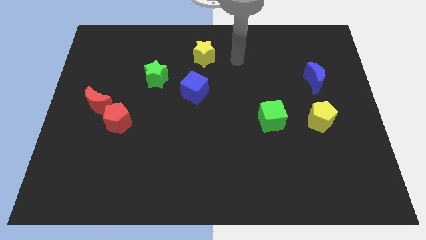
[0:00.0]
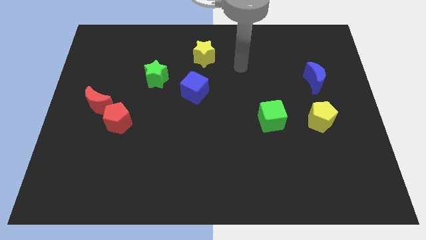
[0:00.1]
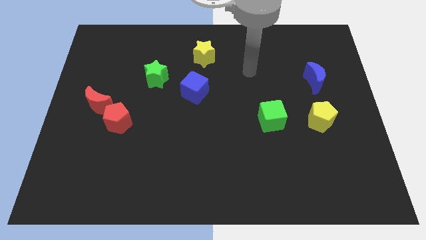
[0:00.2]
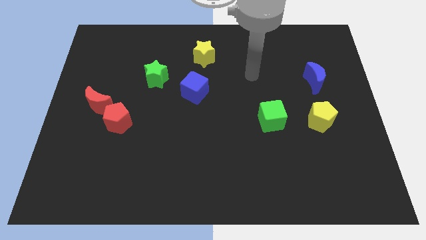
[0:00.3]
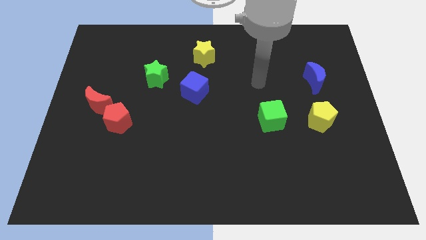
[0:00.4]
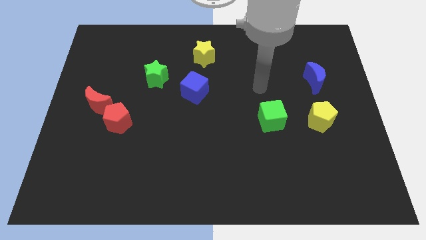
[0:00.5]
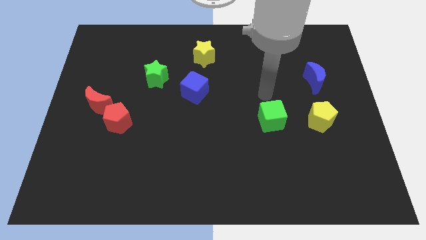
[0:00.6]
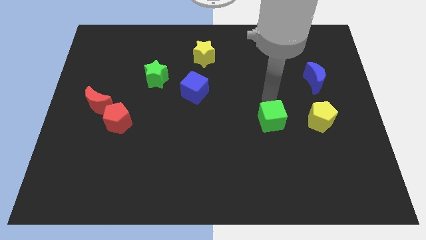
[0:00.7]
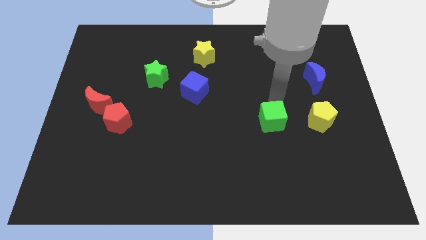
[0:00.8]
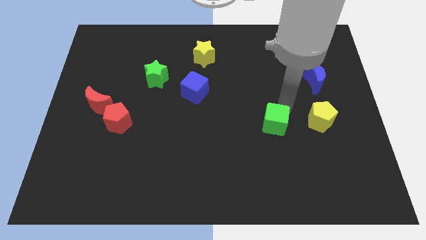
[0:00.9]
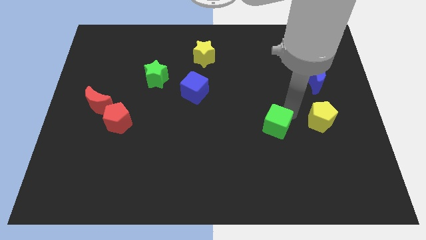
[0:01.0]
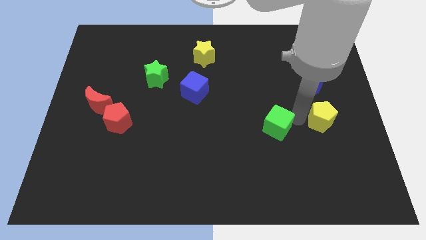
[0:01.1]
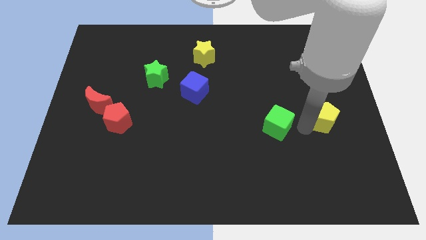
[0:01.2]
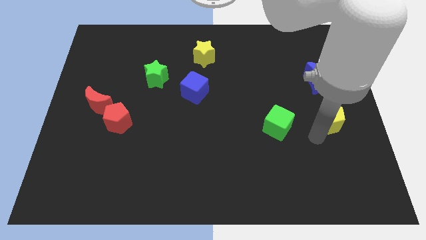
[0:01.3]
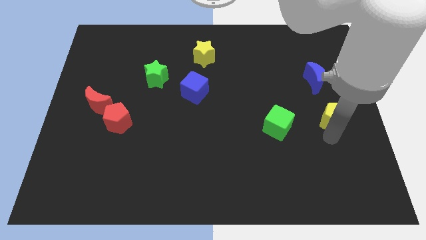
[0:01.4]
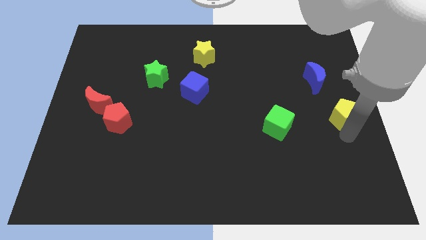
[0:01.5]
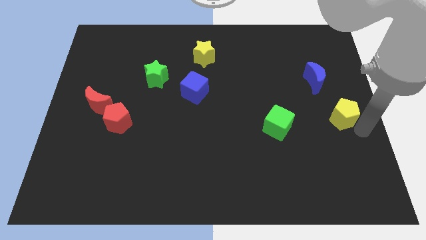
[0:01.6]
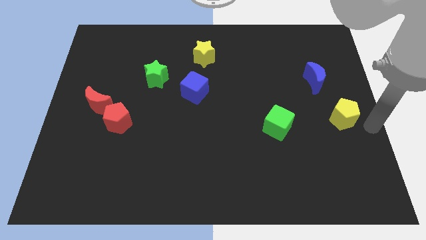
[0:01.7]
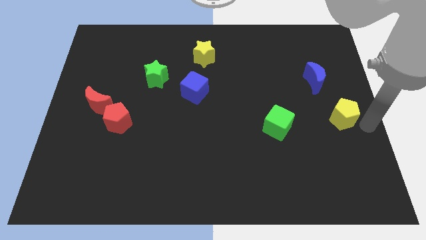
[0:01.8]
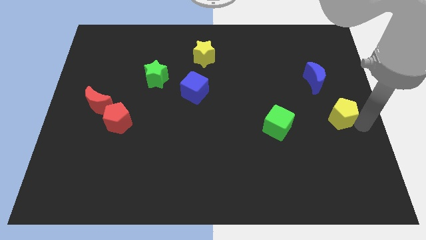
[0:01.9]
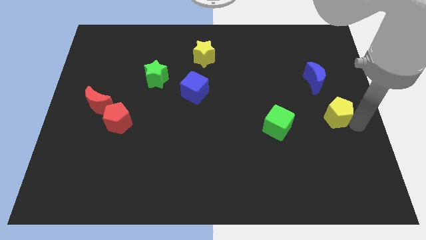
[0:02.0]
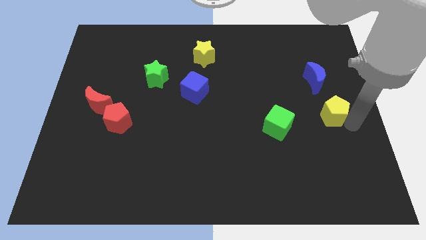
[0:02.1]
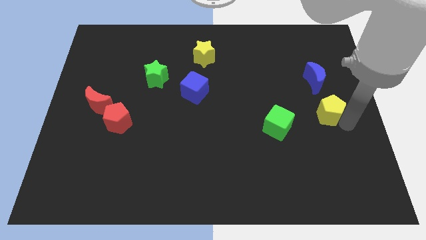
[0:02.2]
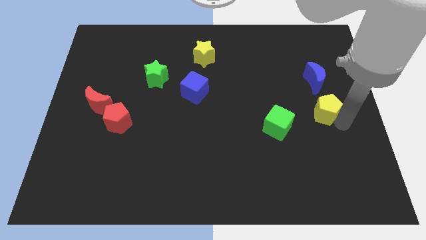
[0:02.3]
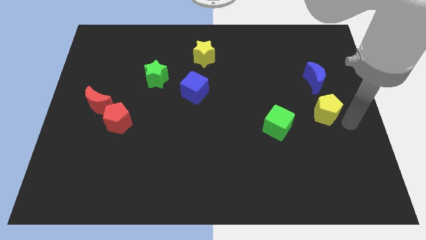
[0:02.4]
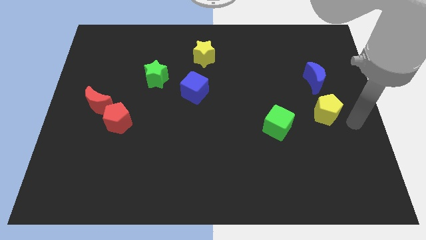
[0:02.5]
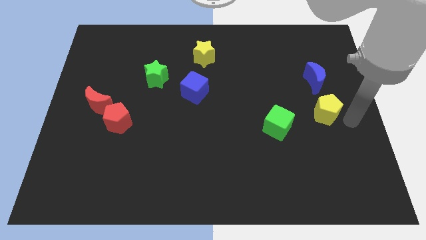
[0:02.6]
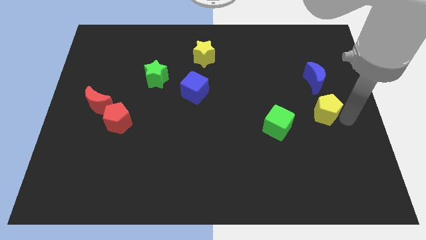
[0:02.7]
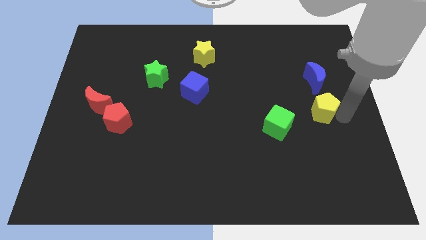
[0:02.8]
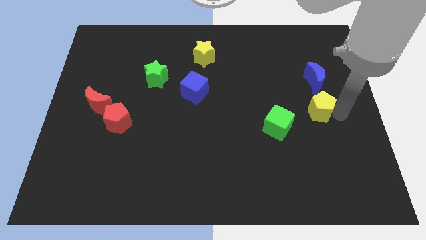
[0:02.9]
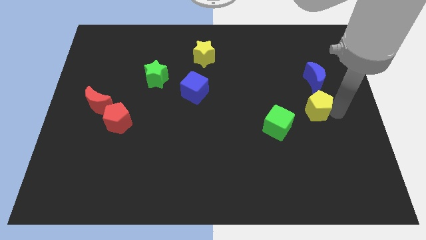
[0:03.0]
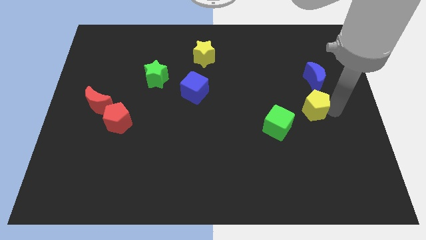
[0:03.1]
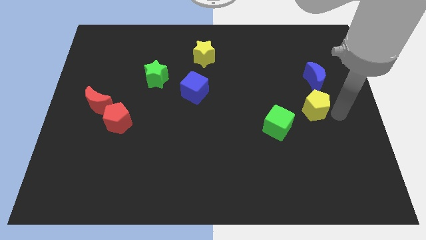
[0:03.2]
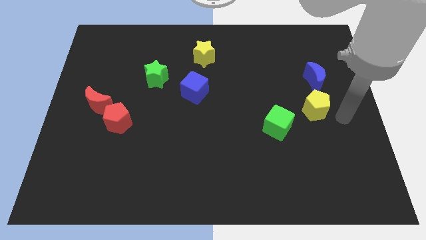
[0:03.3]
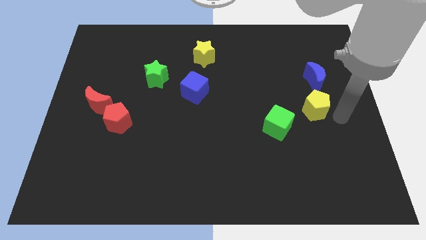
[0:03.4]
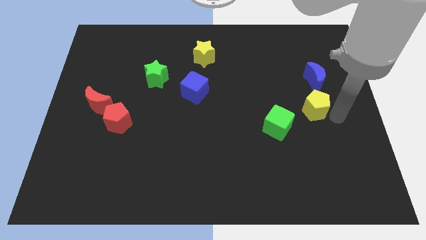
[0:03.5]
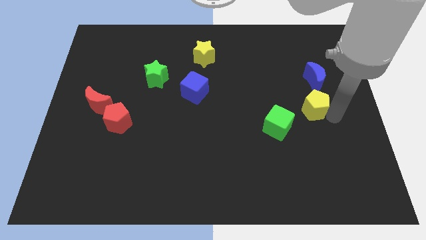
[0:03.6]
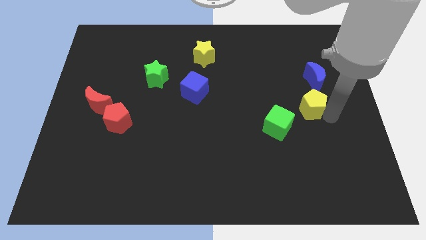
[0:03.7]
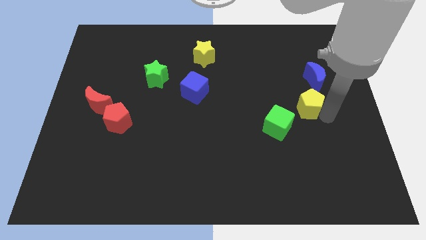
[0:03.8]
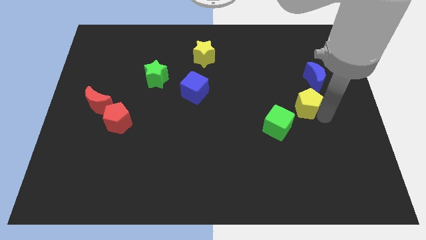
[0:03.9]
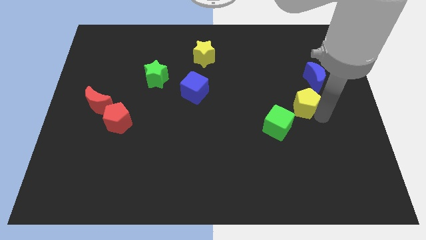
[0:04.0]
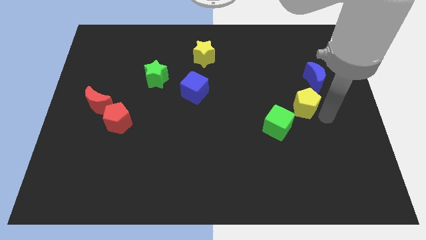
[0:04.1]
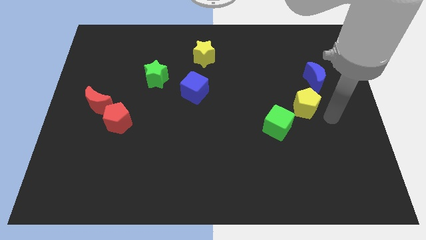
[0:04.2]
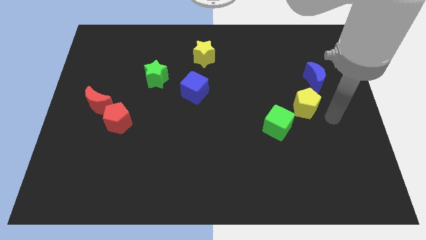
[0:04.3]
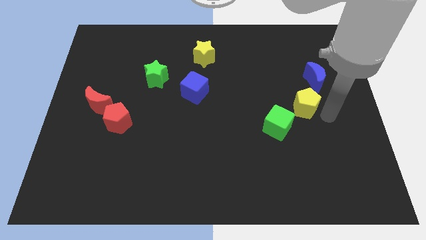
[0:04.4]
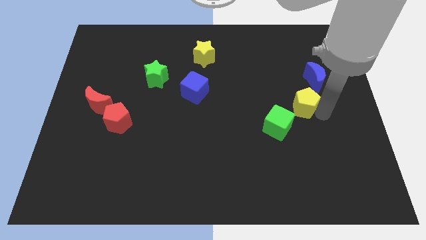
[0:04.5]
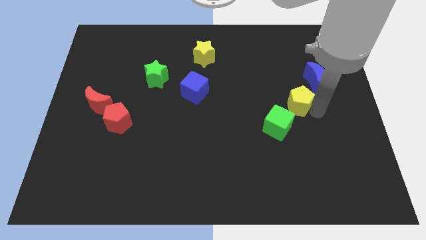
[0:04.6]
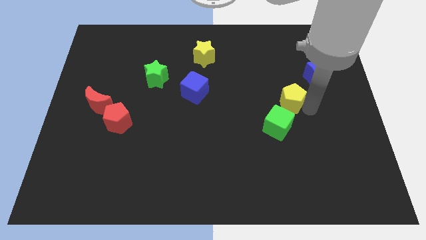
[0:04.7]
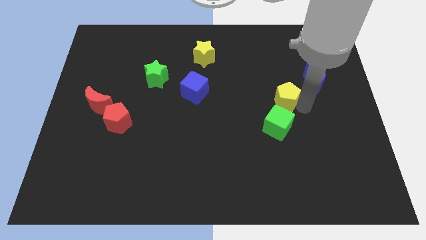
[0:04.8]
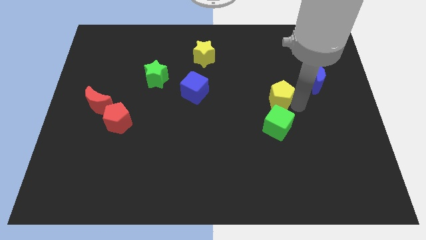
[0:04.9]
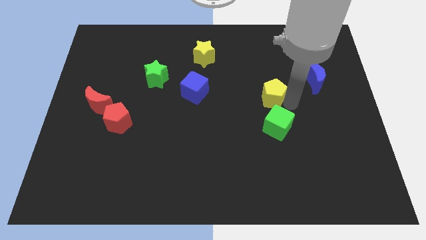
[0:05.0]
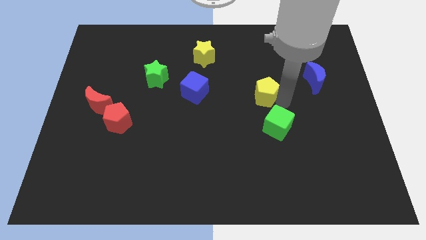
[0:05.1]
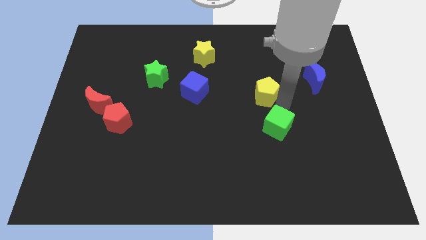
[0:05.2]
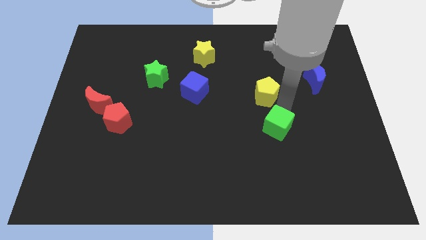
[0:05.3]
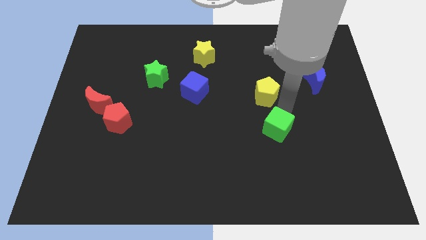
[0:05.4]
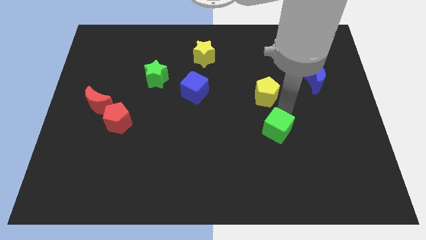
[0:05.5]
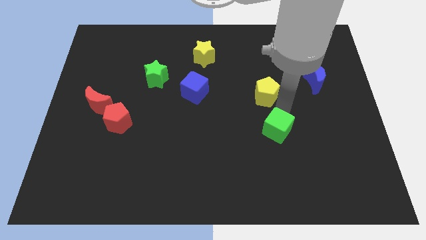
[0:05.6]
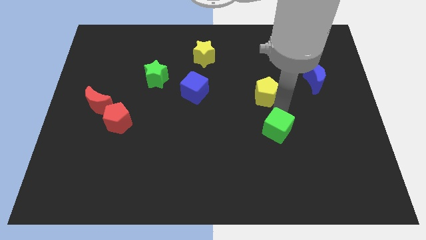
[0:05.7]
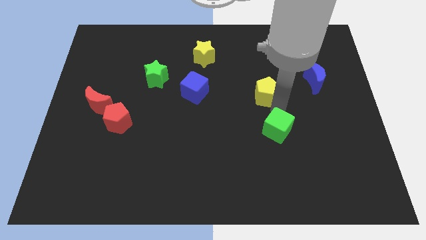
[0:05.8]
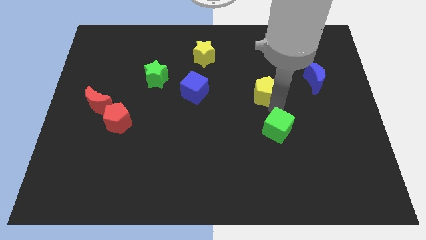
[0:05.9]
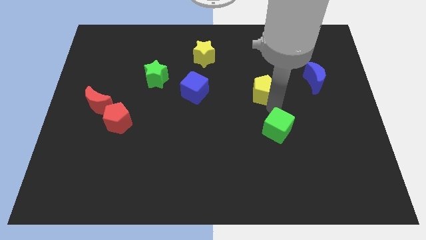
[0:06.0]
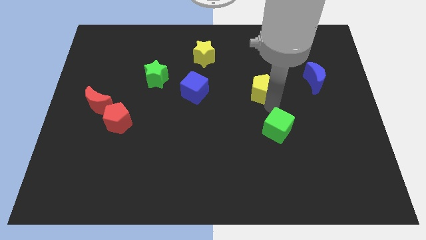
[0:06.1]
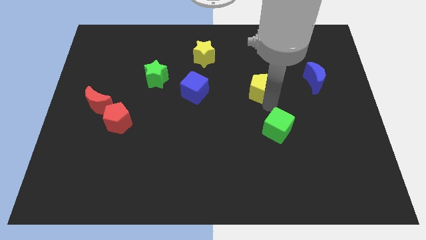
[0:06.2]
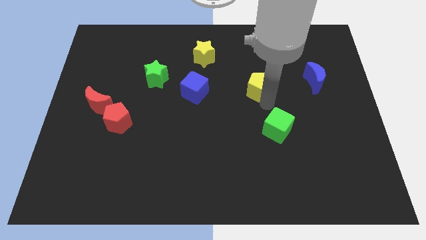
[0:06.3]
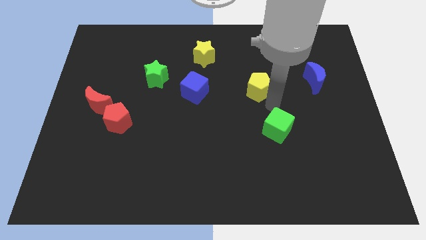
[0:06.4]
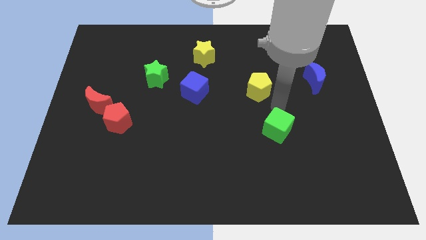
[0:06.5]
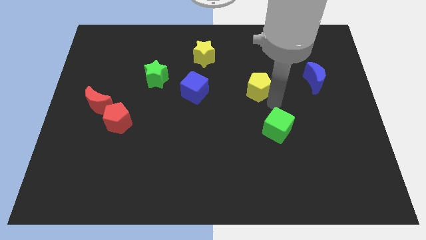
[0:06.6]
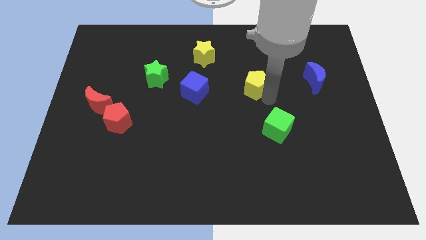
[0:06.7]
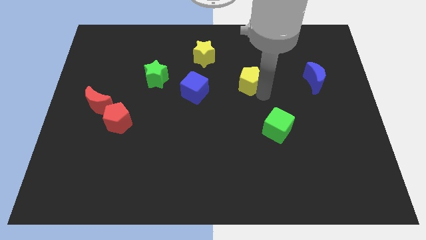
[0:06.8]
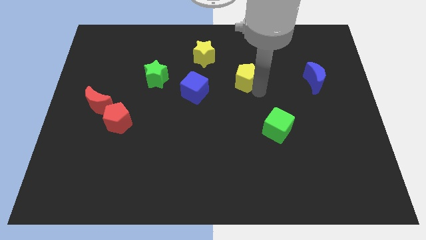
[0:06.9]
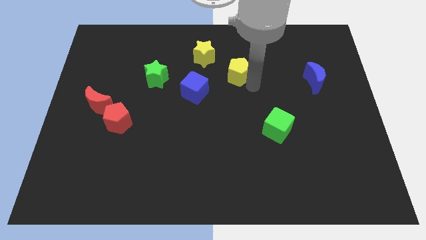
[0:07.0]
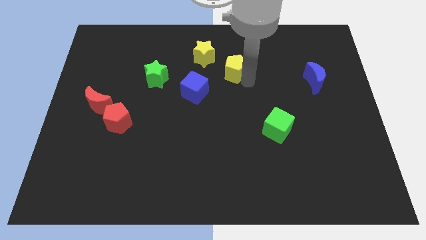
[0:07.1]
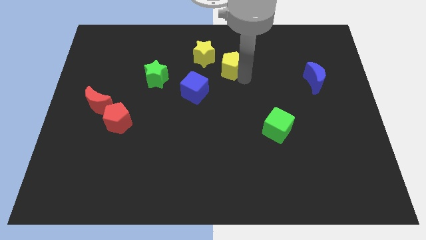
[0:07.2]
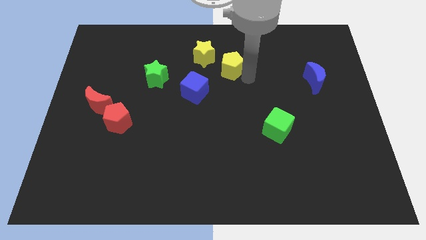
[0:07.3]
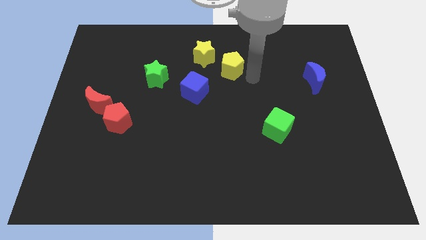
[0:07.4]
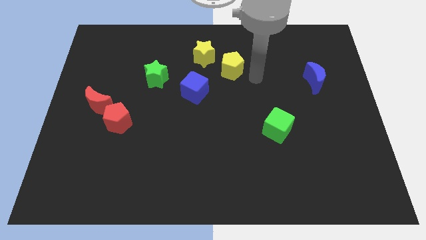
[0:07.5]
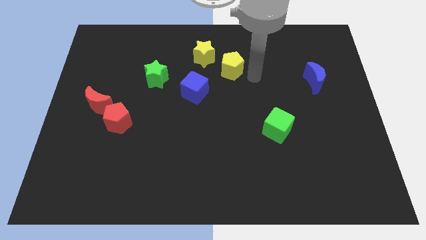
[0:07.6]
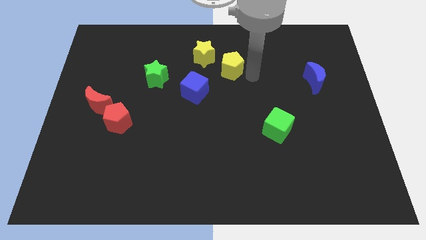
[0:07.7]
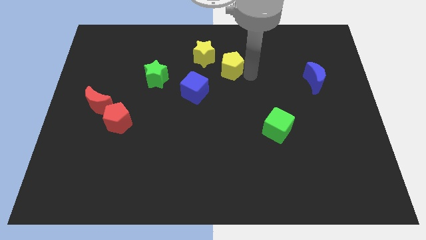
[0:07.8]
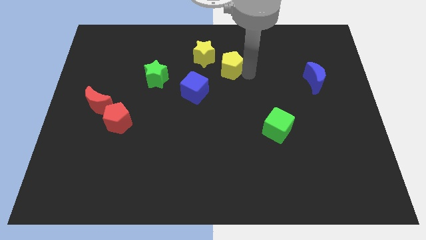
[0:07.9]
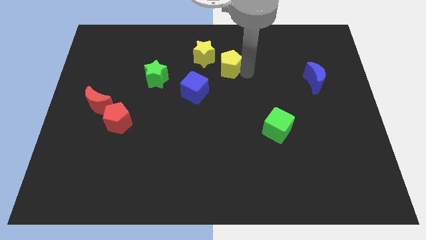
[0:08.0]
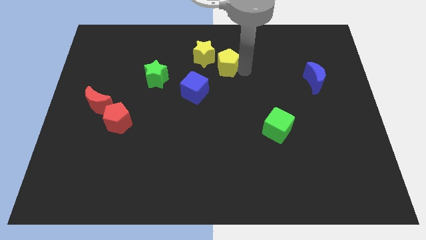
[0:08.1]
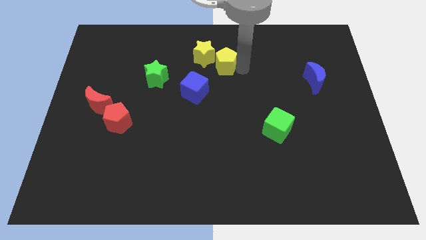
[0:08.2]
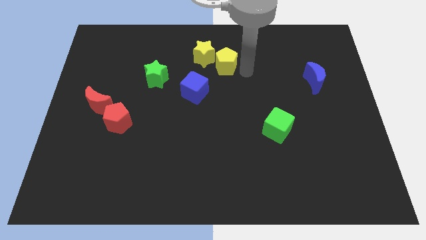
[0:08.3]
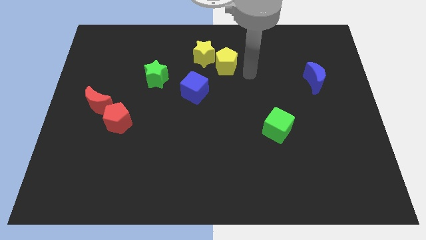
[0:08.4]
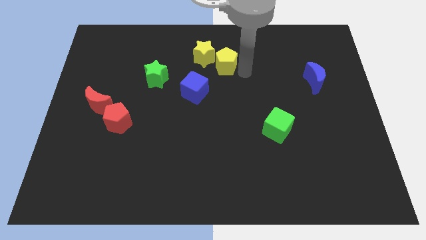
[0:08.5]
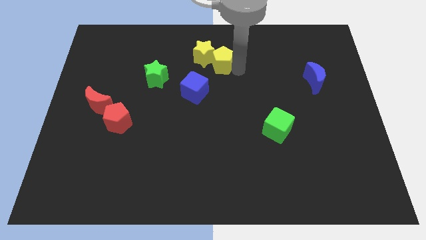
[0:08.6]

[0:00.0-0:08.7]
move the yellow pentagon next to the yellow star
